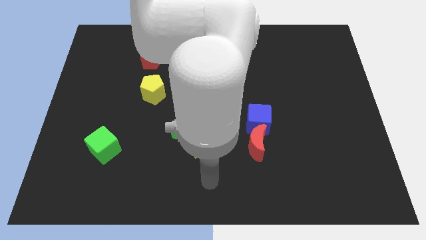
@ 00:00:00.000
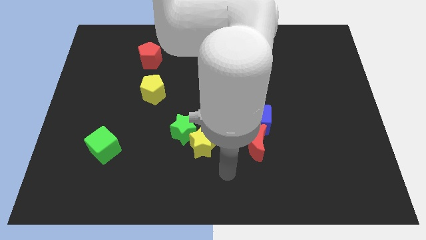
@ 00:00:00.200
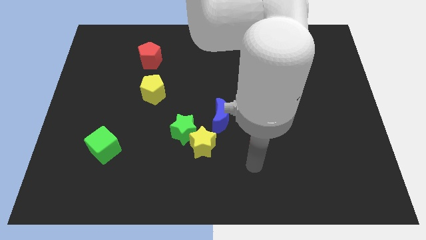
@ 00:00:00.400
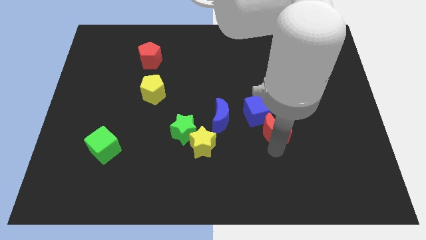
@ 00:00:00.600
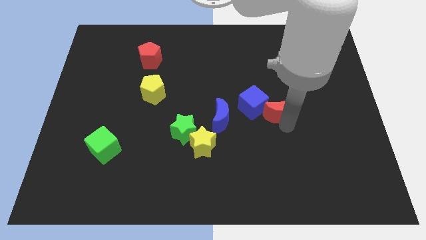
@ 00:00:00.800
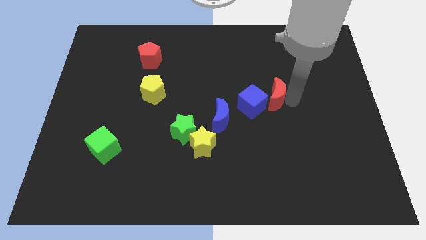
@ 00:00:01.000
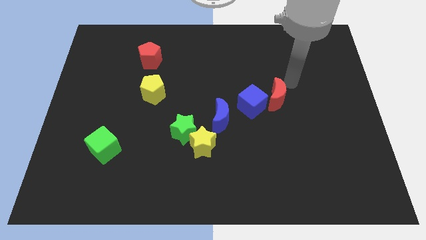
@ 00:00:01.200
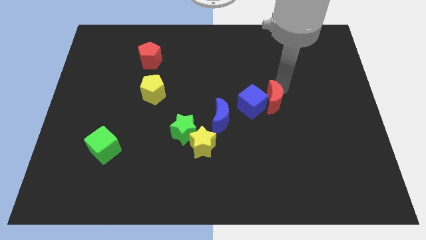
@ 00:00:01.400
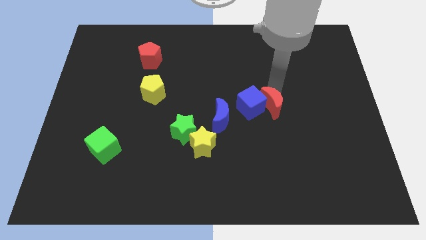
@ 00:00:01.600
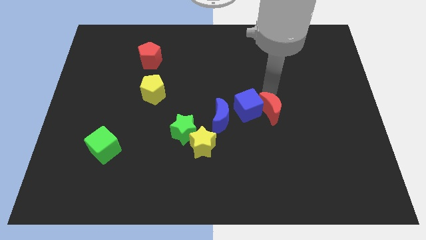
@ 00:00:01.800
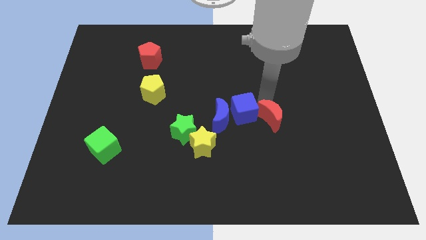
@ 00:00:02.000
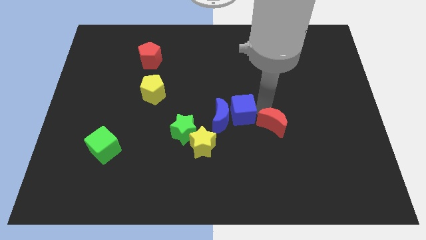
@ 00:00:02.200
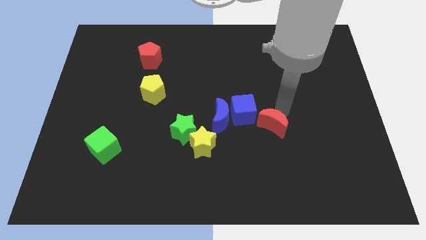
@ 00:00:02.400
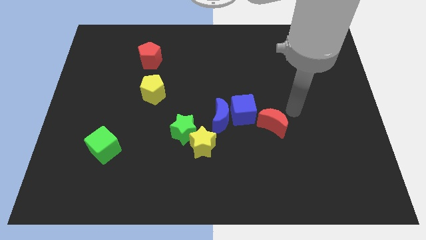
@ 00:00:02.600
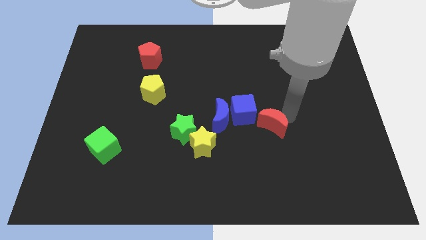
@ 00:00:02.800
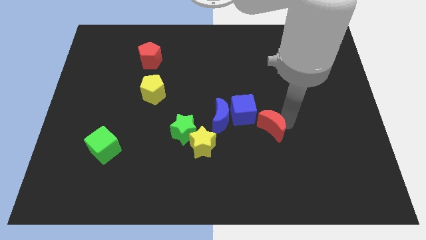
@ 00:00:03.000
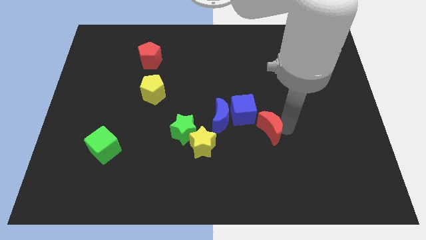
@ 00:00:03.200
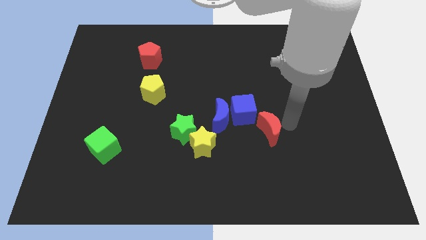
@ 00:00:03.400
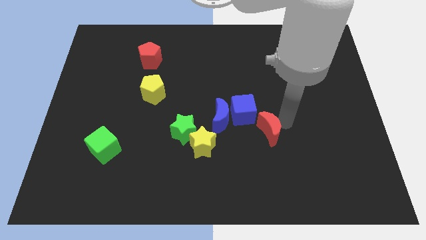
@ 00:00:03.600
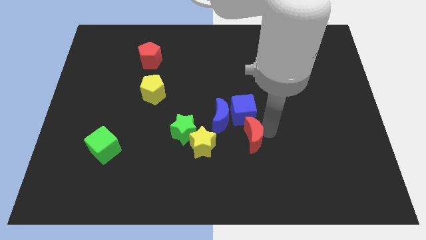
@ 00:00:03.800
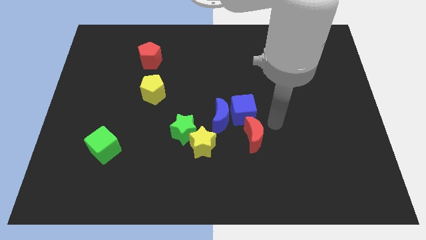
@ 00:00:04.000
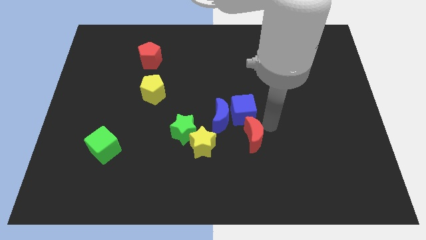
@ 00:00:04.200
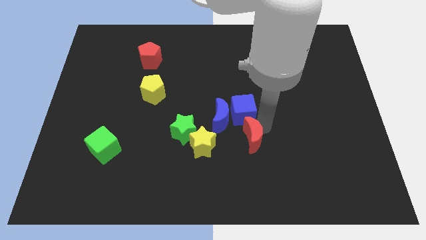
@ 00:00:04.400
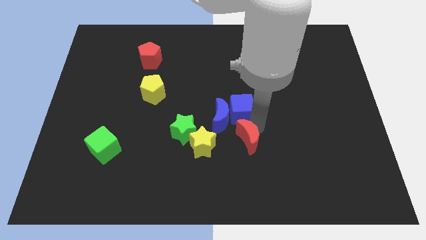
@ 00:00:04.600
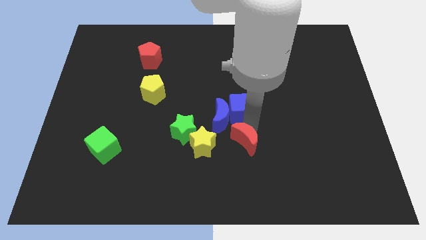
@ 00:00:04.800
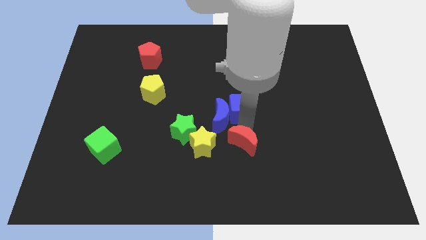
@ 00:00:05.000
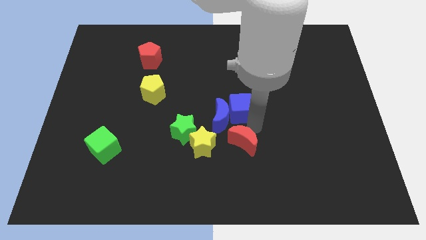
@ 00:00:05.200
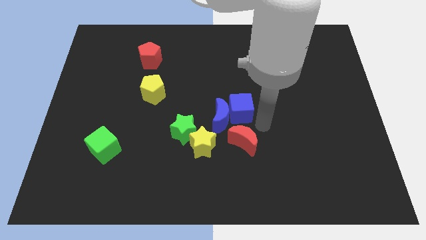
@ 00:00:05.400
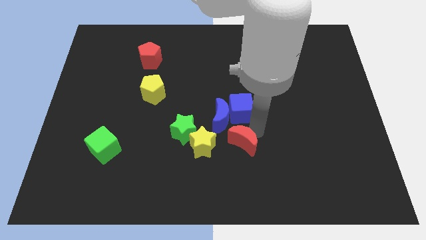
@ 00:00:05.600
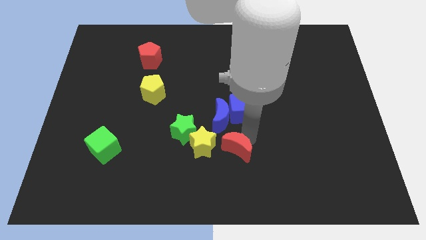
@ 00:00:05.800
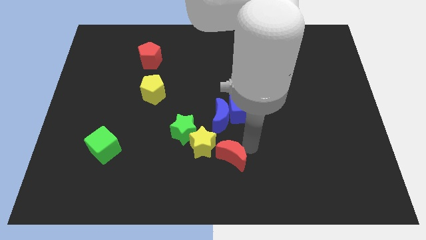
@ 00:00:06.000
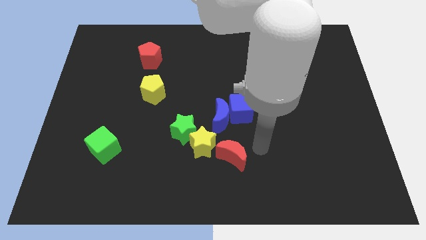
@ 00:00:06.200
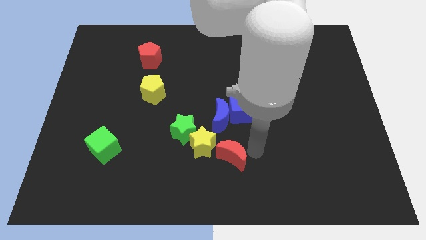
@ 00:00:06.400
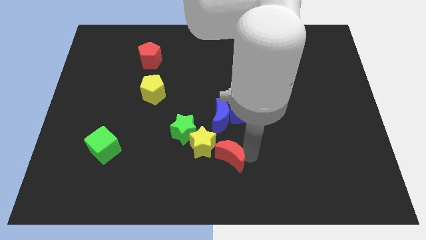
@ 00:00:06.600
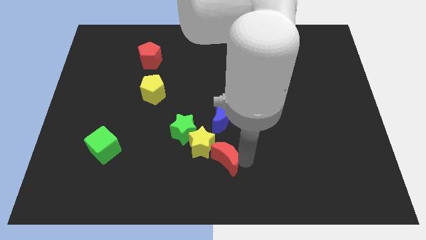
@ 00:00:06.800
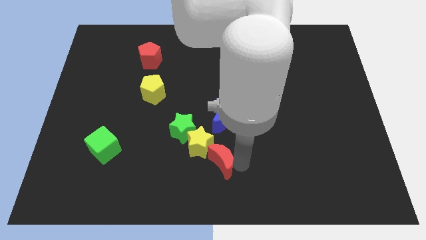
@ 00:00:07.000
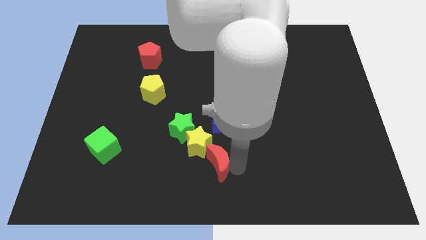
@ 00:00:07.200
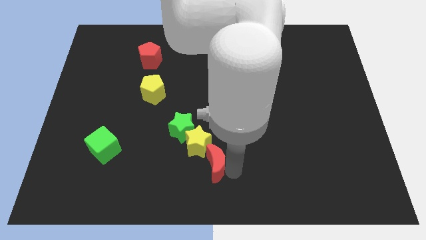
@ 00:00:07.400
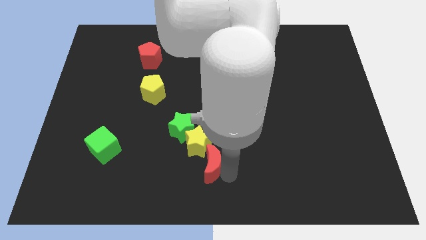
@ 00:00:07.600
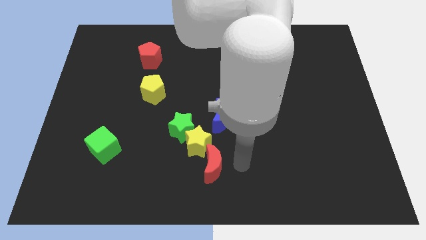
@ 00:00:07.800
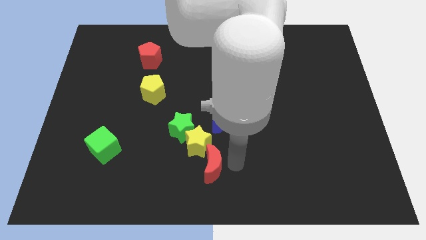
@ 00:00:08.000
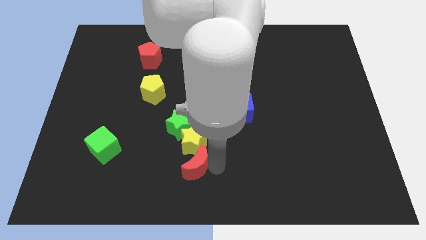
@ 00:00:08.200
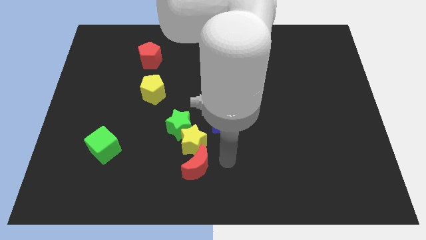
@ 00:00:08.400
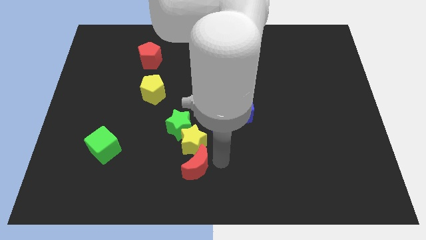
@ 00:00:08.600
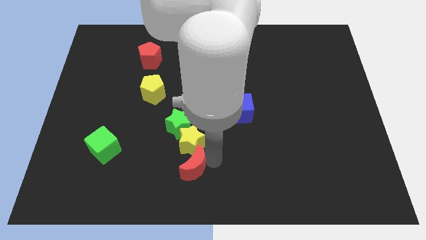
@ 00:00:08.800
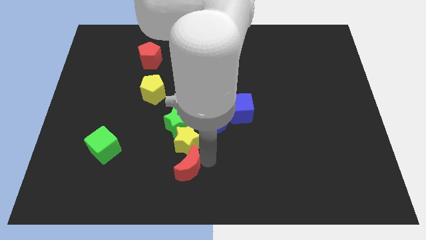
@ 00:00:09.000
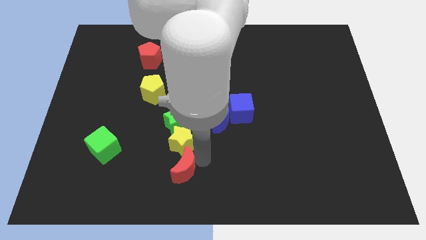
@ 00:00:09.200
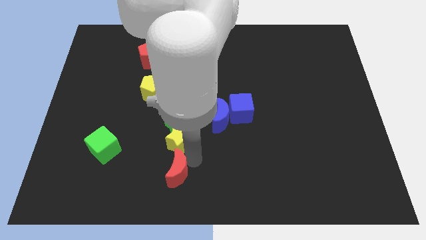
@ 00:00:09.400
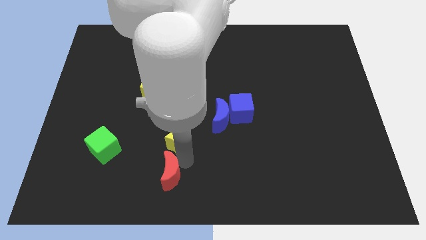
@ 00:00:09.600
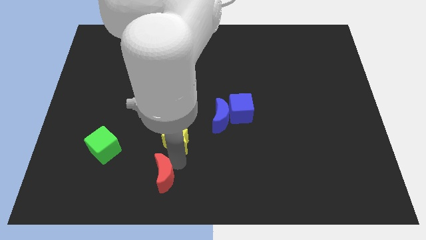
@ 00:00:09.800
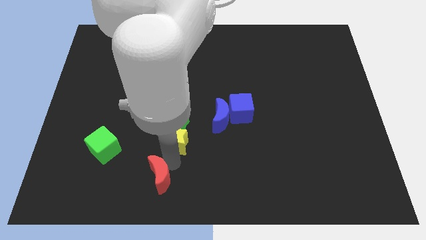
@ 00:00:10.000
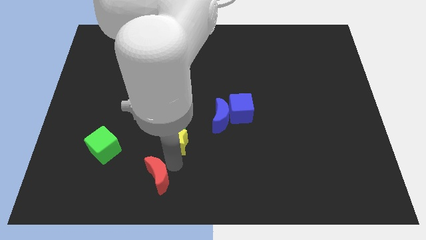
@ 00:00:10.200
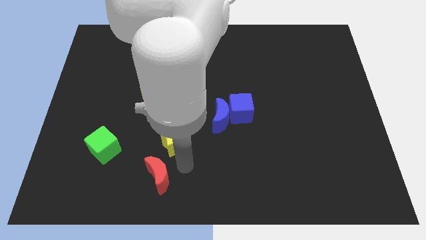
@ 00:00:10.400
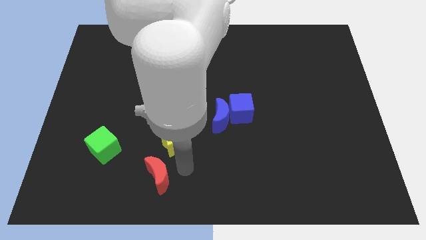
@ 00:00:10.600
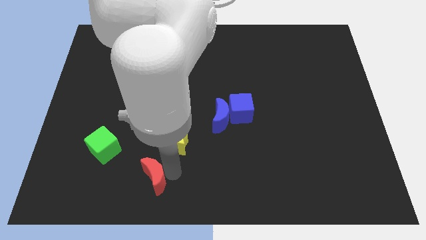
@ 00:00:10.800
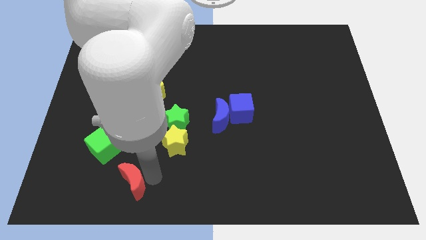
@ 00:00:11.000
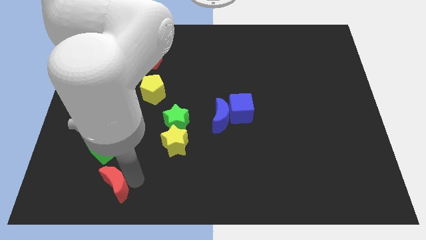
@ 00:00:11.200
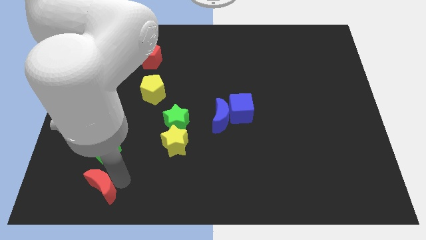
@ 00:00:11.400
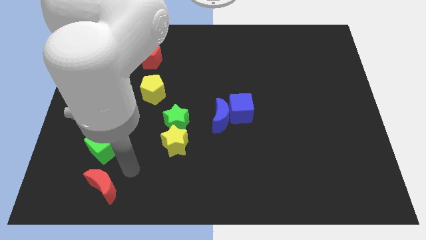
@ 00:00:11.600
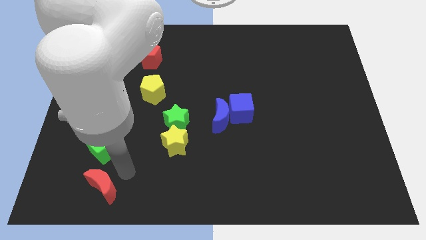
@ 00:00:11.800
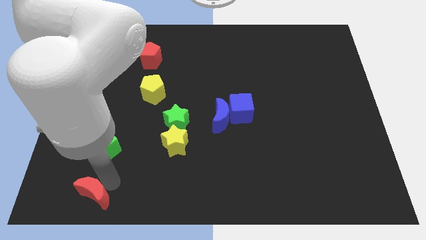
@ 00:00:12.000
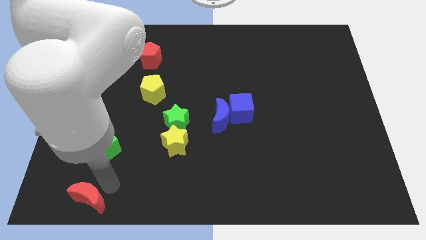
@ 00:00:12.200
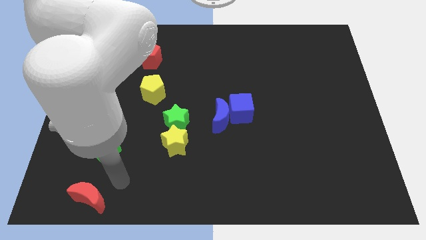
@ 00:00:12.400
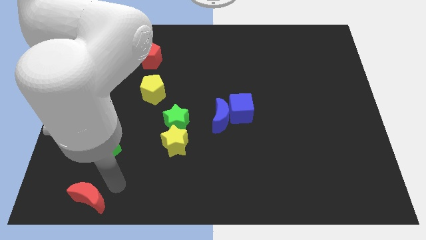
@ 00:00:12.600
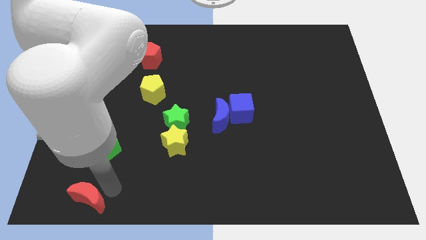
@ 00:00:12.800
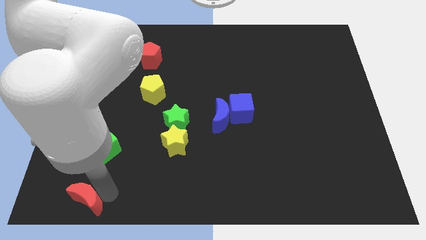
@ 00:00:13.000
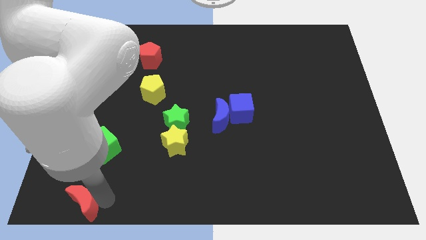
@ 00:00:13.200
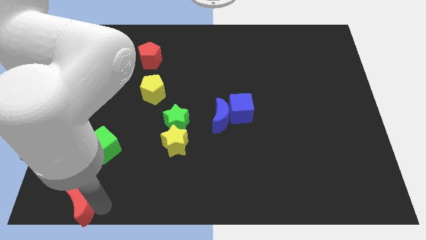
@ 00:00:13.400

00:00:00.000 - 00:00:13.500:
put the red moon to the bottom left

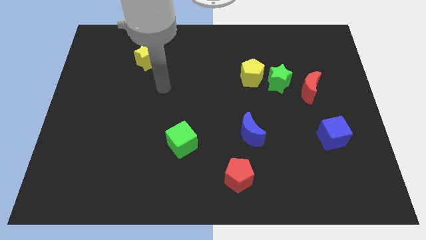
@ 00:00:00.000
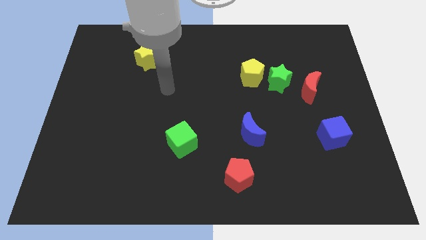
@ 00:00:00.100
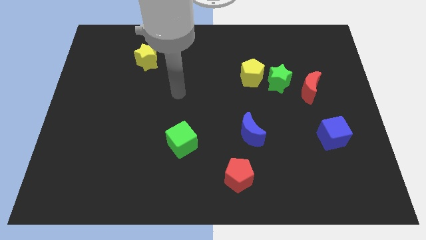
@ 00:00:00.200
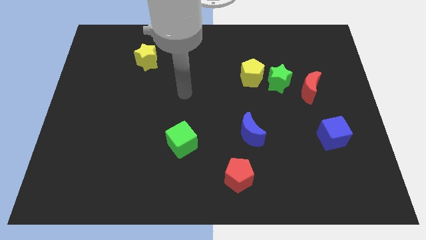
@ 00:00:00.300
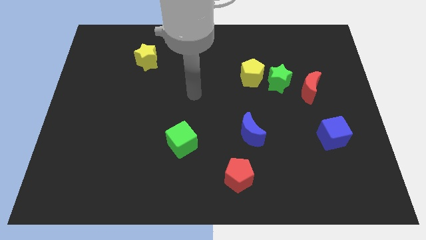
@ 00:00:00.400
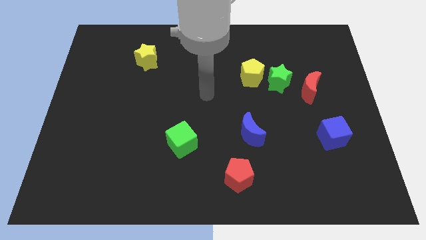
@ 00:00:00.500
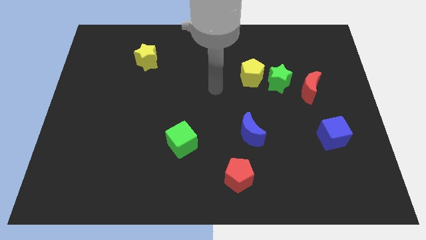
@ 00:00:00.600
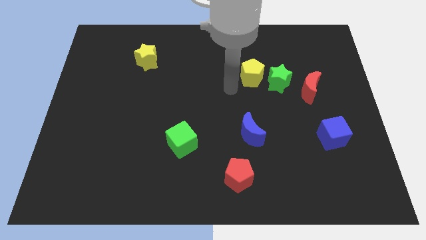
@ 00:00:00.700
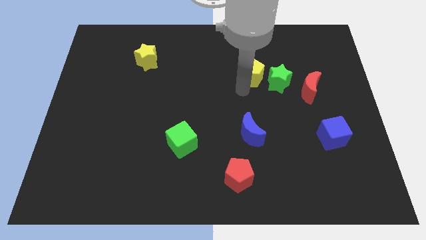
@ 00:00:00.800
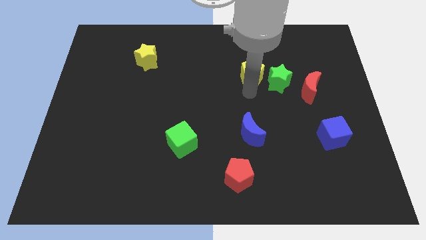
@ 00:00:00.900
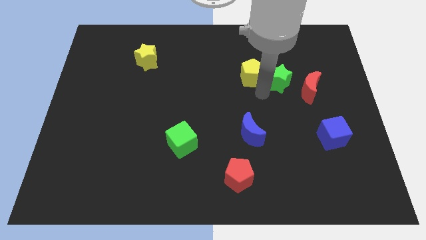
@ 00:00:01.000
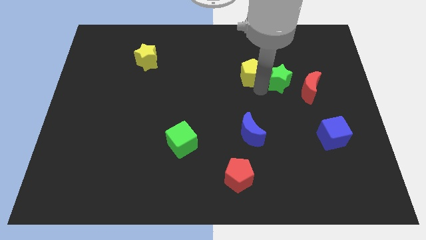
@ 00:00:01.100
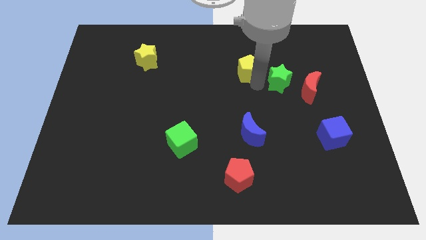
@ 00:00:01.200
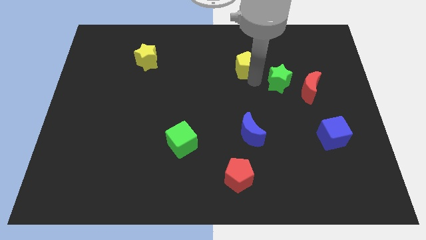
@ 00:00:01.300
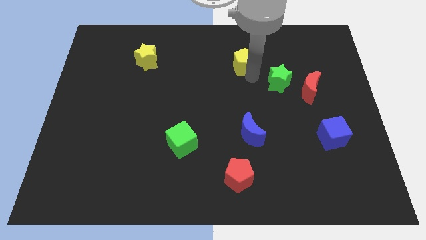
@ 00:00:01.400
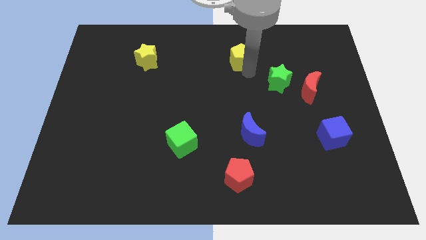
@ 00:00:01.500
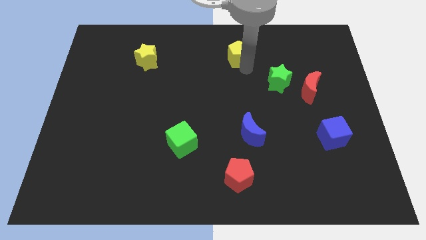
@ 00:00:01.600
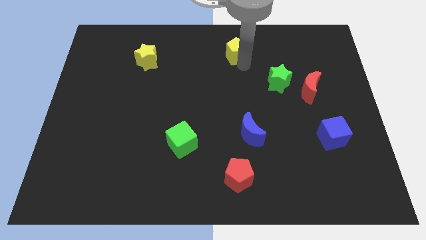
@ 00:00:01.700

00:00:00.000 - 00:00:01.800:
push the yellow pentagon to the towards your base
